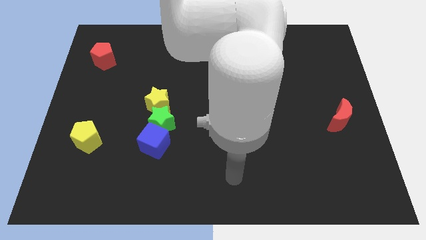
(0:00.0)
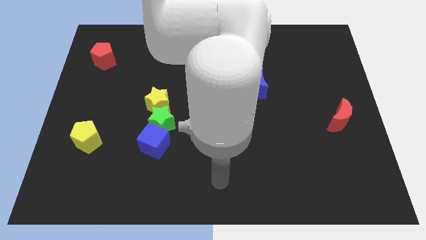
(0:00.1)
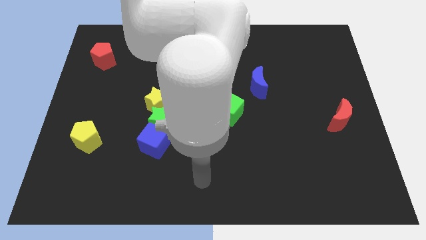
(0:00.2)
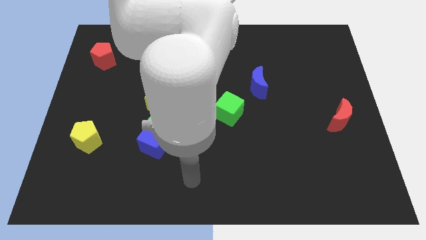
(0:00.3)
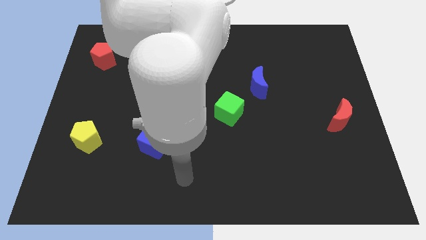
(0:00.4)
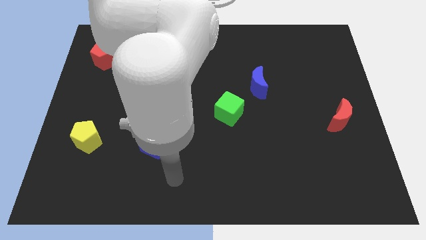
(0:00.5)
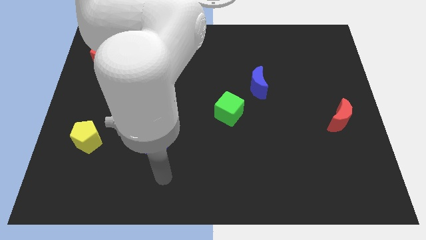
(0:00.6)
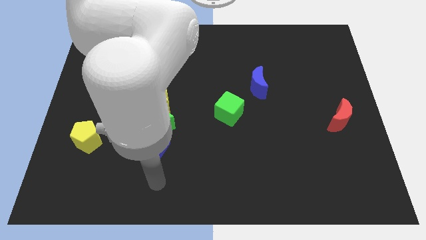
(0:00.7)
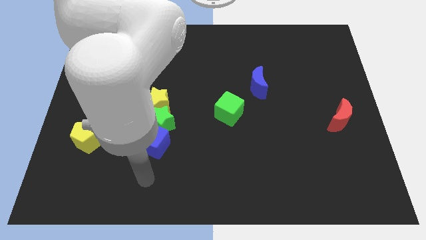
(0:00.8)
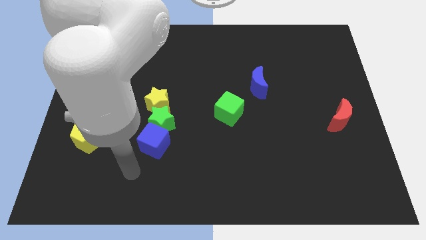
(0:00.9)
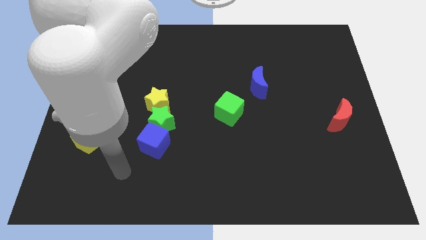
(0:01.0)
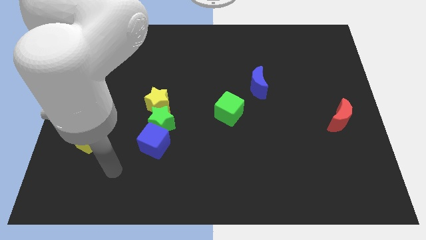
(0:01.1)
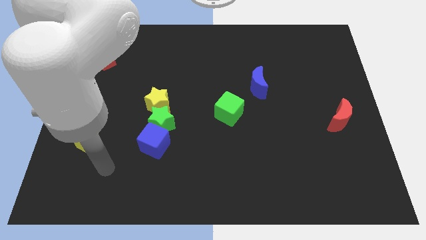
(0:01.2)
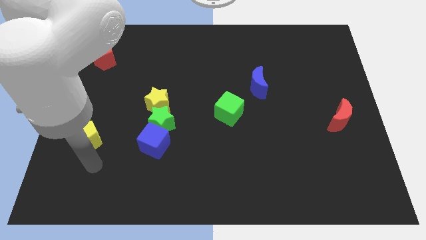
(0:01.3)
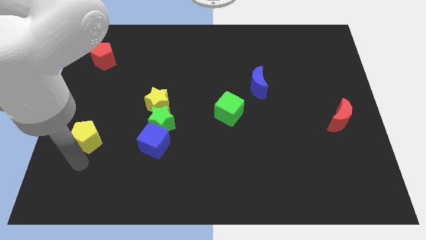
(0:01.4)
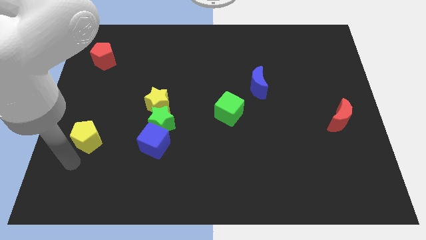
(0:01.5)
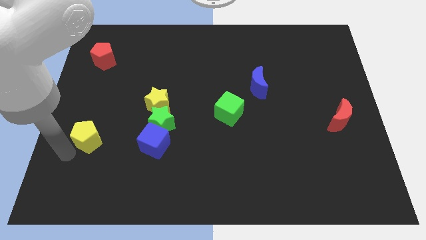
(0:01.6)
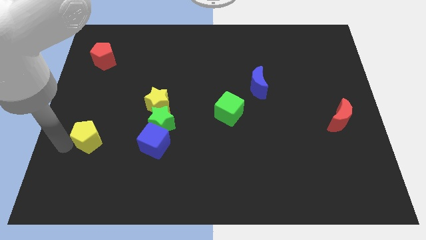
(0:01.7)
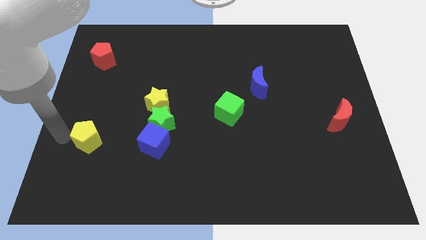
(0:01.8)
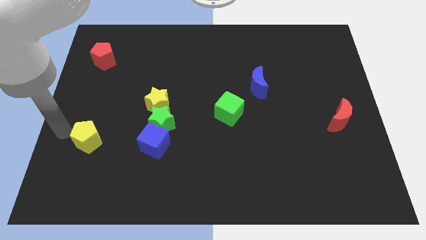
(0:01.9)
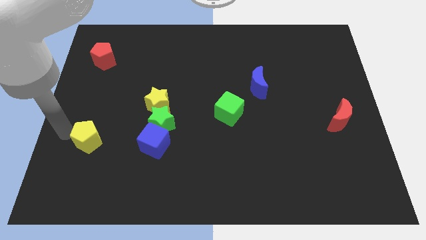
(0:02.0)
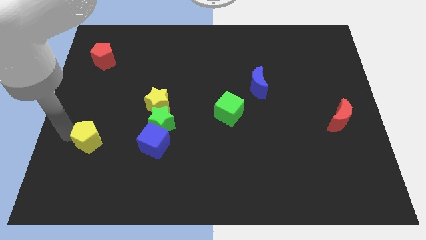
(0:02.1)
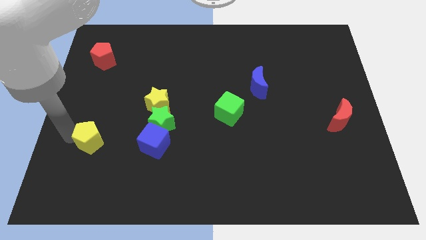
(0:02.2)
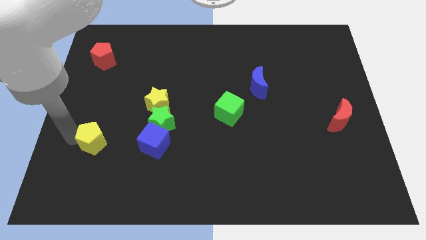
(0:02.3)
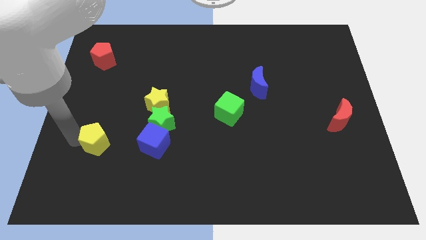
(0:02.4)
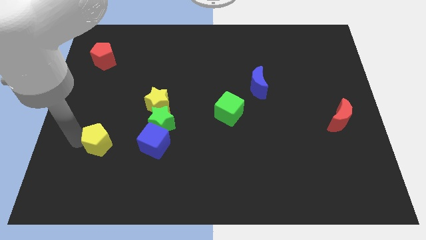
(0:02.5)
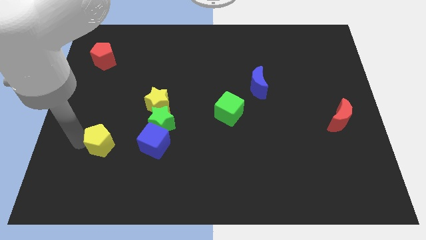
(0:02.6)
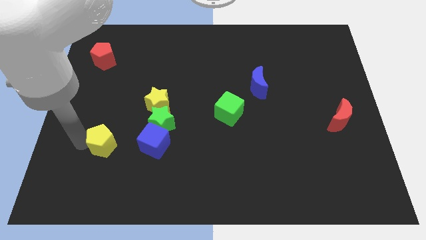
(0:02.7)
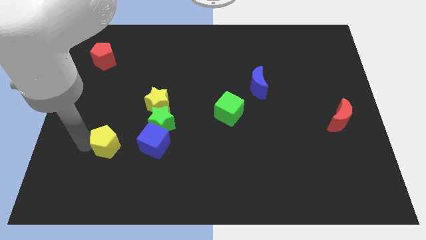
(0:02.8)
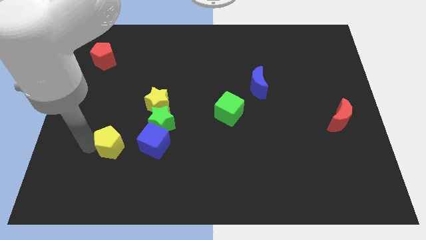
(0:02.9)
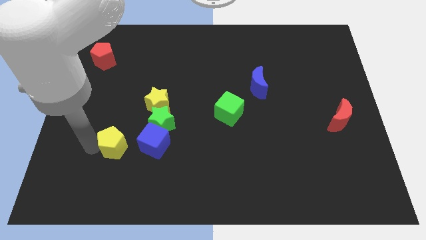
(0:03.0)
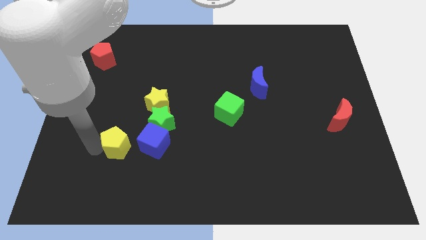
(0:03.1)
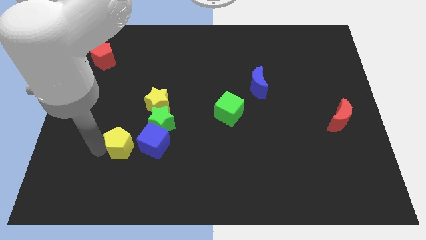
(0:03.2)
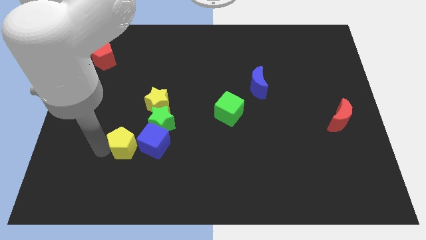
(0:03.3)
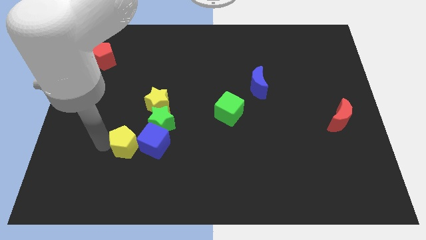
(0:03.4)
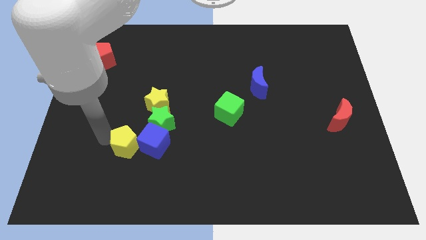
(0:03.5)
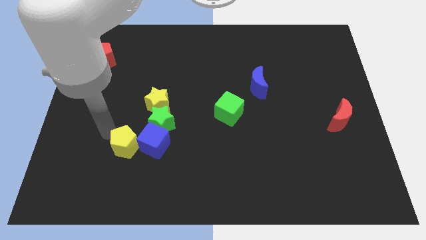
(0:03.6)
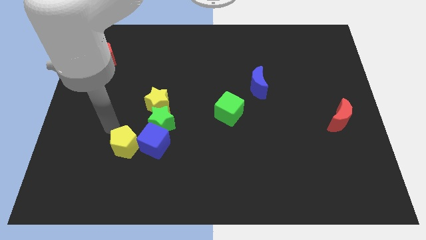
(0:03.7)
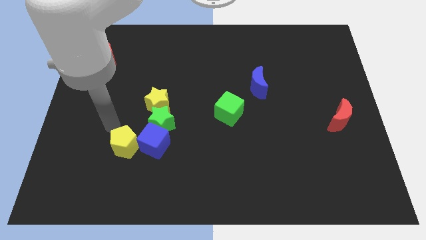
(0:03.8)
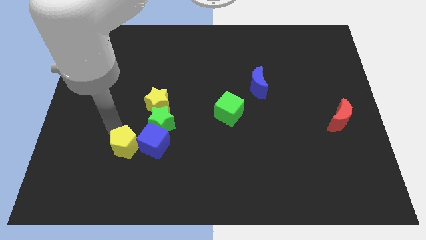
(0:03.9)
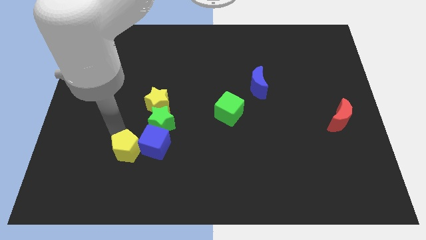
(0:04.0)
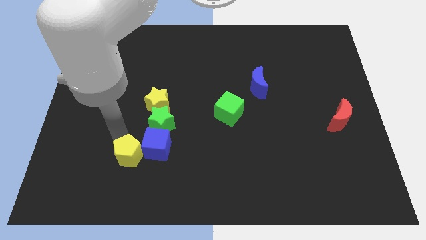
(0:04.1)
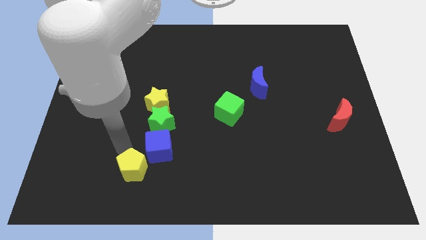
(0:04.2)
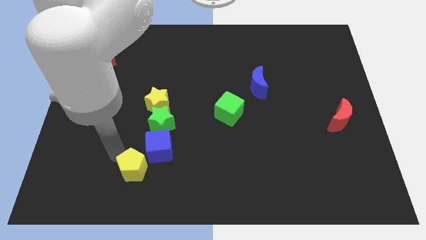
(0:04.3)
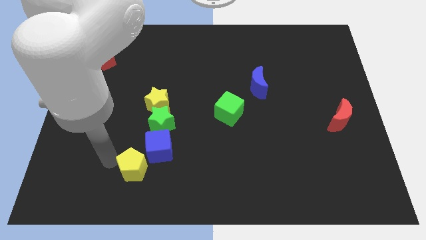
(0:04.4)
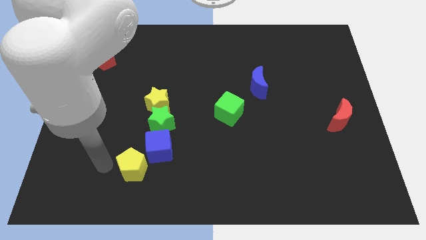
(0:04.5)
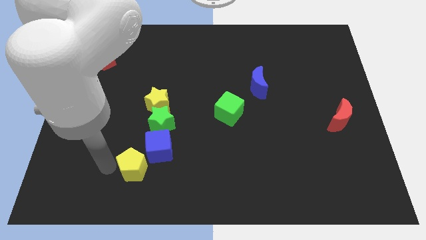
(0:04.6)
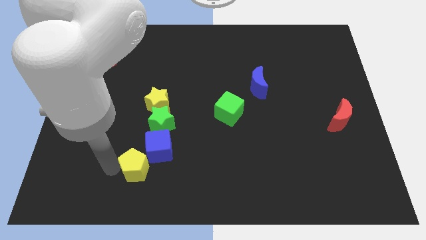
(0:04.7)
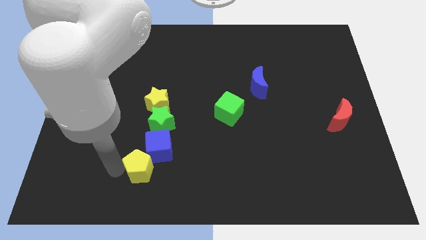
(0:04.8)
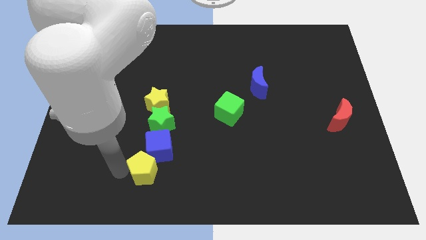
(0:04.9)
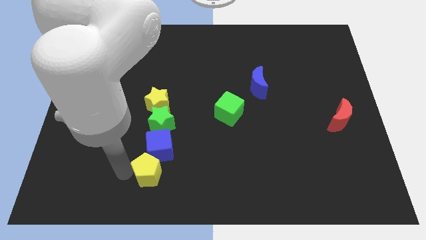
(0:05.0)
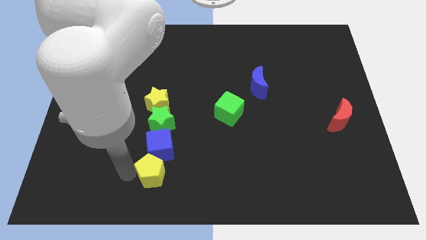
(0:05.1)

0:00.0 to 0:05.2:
put the yellow pentagon to the bottom right side of the blue cube

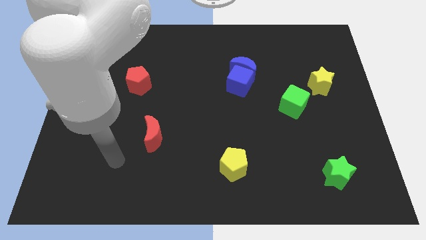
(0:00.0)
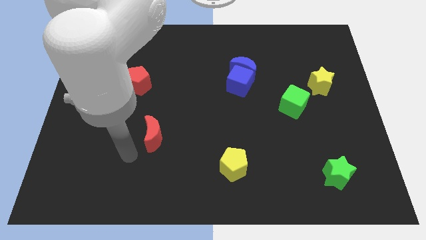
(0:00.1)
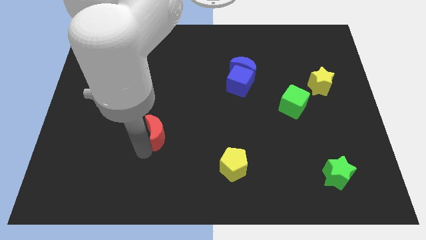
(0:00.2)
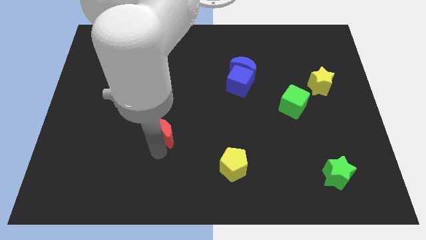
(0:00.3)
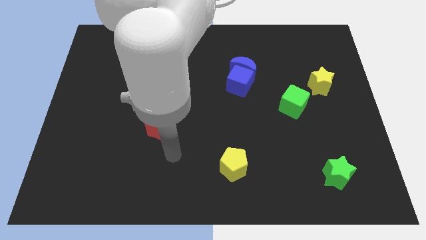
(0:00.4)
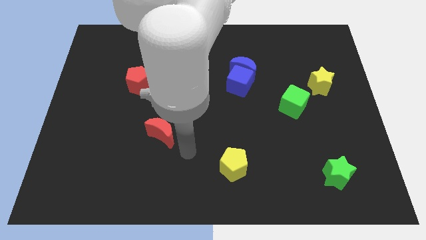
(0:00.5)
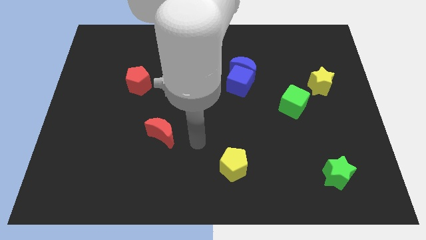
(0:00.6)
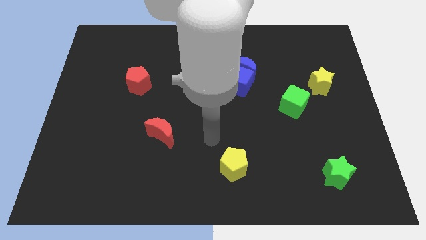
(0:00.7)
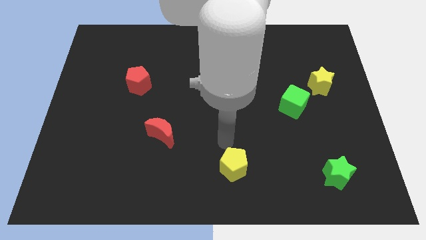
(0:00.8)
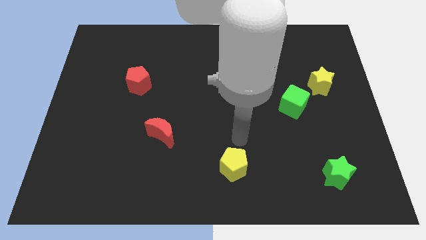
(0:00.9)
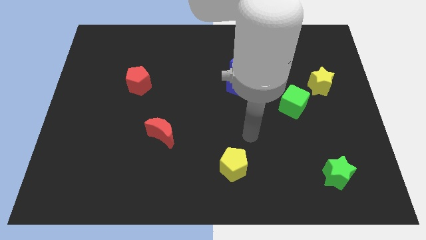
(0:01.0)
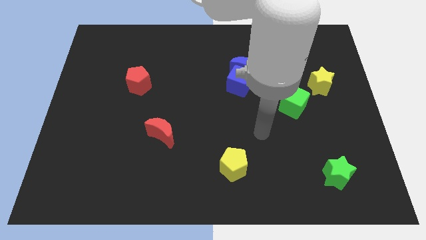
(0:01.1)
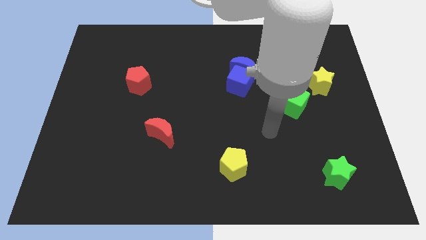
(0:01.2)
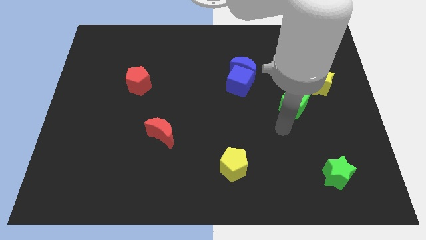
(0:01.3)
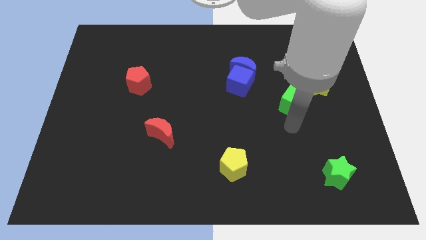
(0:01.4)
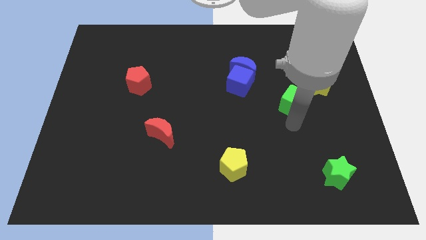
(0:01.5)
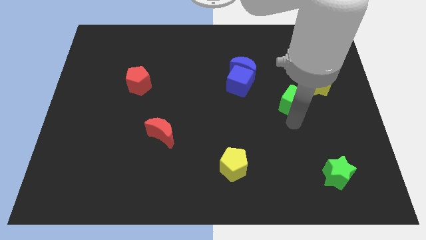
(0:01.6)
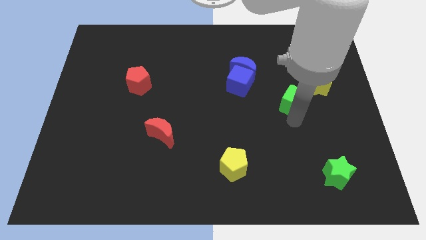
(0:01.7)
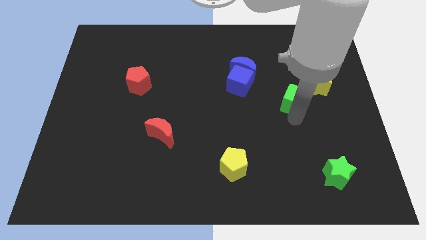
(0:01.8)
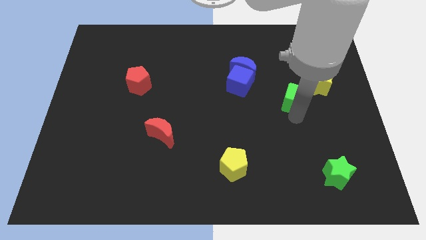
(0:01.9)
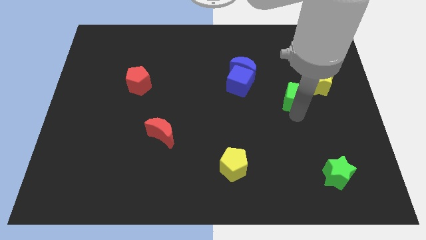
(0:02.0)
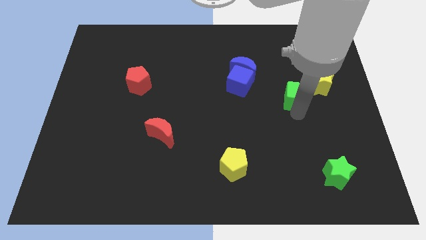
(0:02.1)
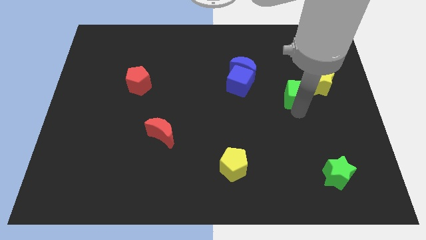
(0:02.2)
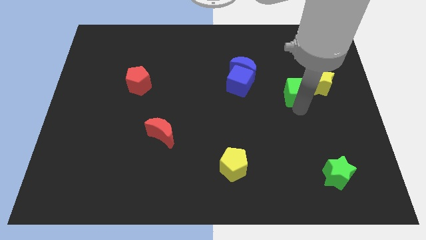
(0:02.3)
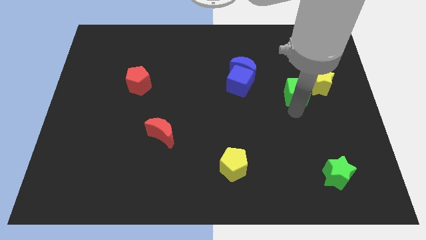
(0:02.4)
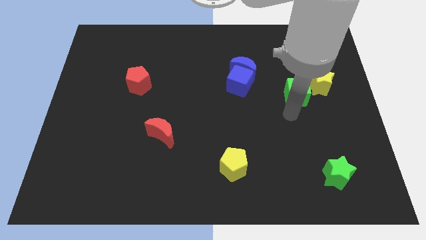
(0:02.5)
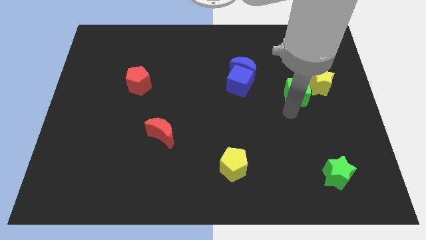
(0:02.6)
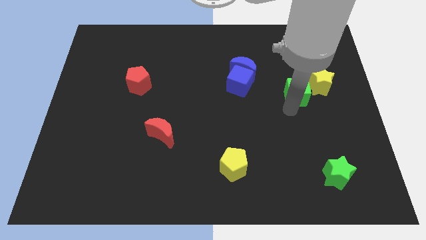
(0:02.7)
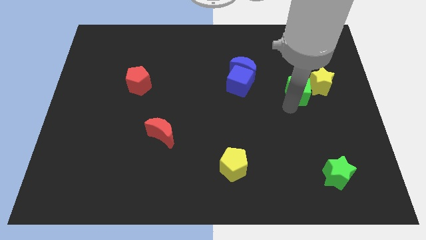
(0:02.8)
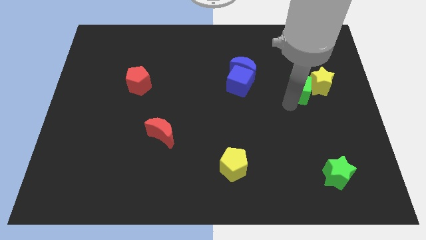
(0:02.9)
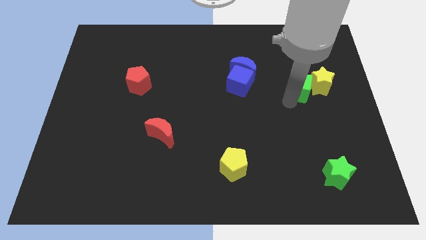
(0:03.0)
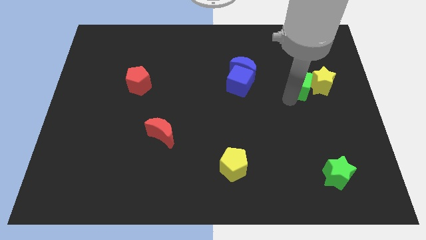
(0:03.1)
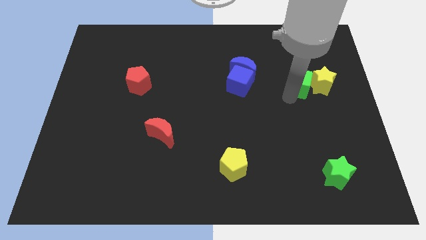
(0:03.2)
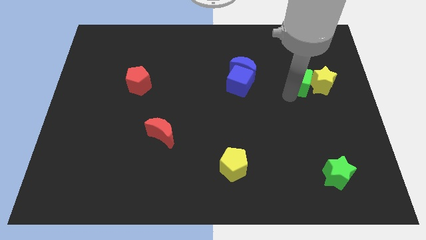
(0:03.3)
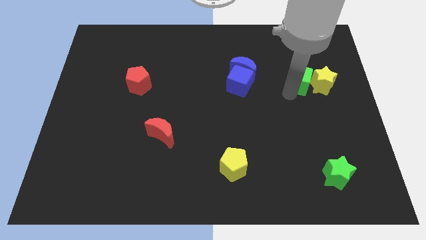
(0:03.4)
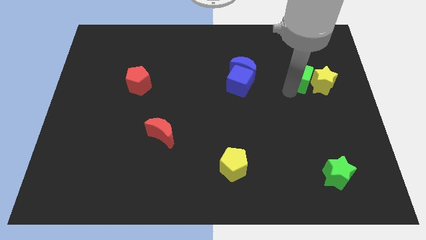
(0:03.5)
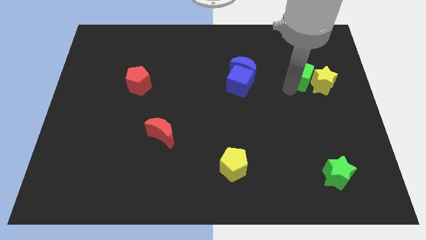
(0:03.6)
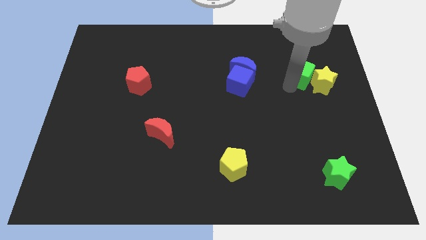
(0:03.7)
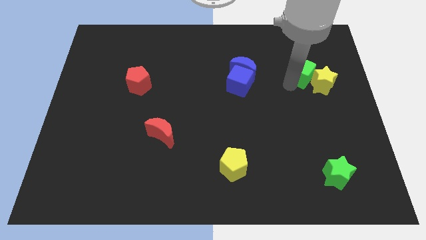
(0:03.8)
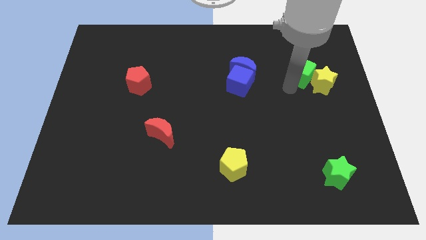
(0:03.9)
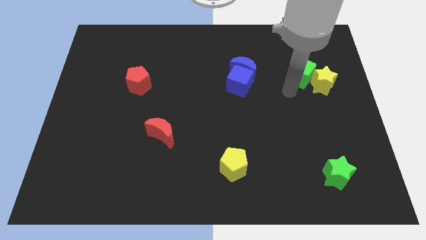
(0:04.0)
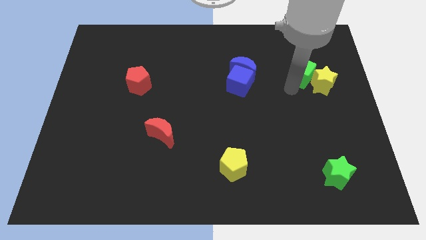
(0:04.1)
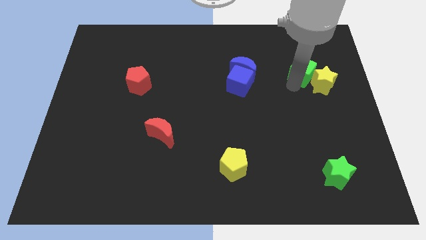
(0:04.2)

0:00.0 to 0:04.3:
put the green cube to the top of the yellow star
